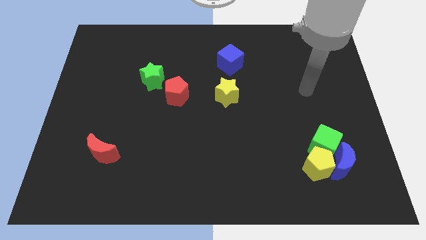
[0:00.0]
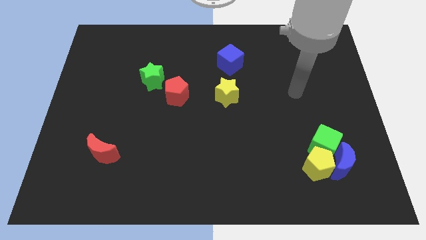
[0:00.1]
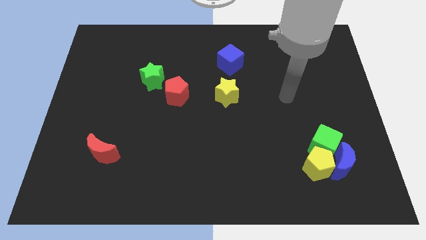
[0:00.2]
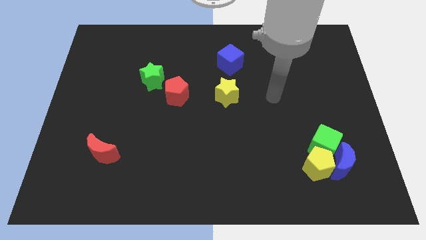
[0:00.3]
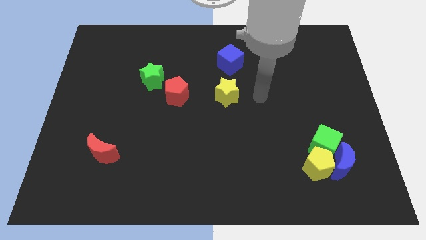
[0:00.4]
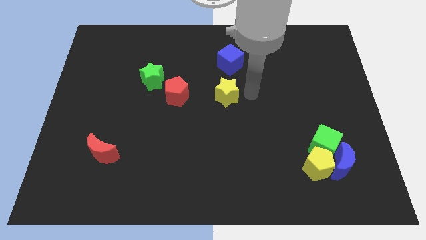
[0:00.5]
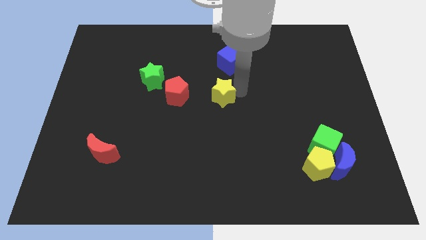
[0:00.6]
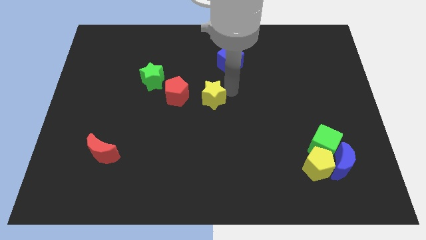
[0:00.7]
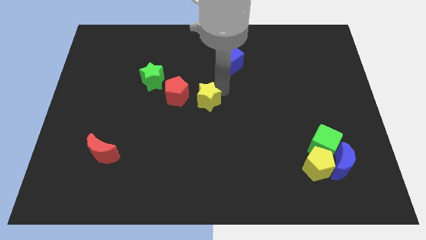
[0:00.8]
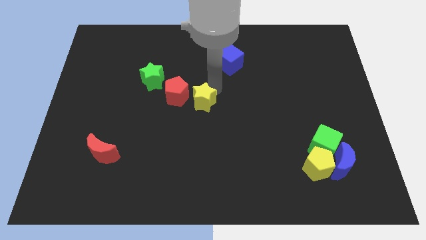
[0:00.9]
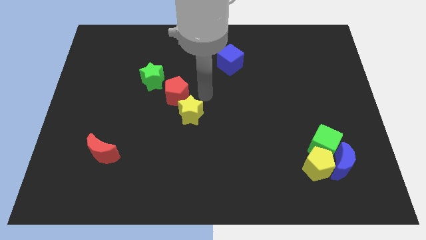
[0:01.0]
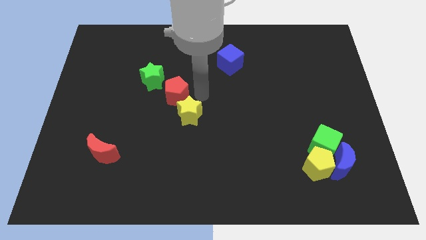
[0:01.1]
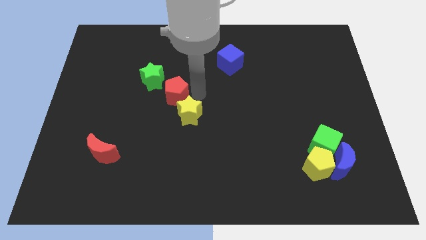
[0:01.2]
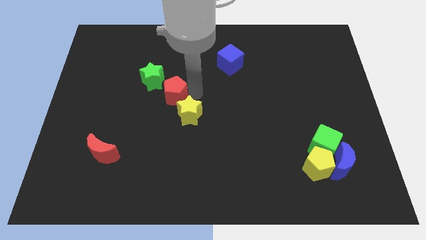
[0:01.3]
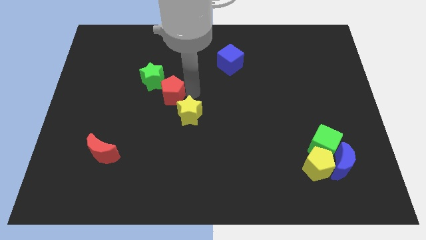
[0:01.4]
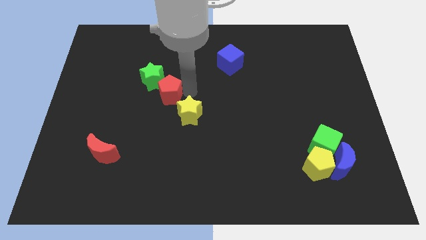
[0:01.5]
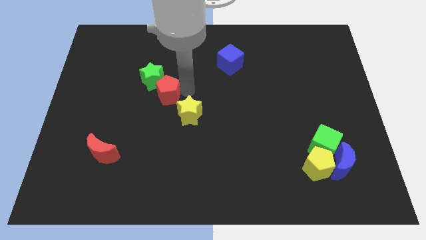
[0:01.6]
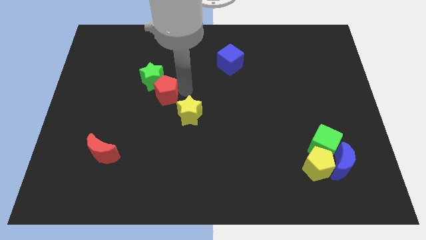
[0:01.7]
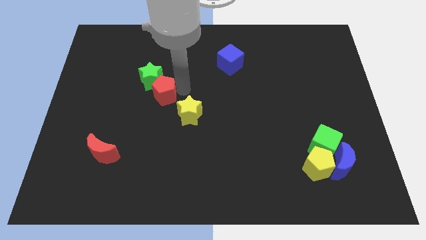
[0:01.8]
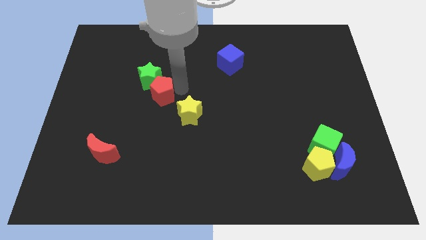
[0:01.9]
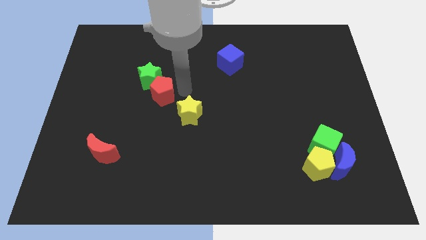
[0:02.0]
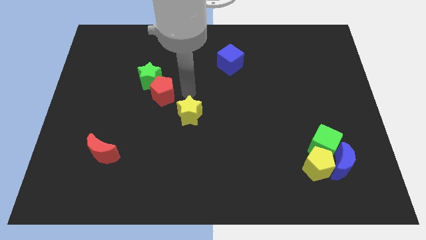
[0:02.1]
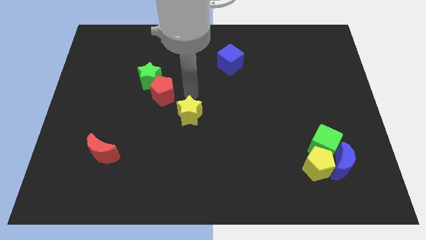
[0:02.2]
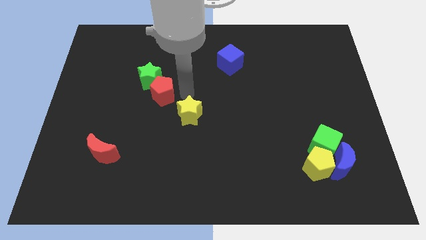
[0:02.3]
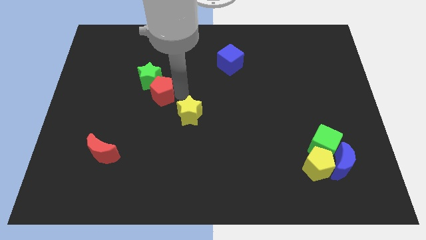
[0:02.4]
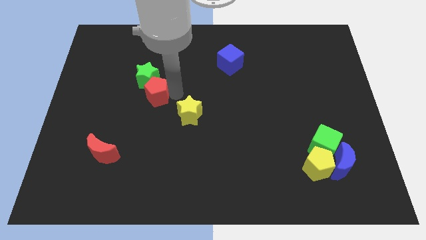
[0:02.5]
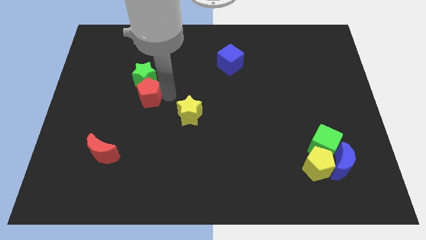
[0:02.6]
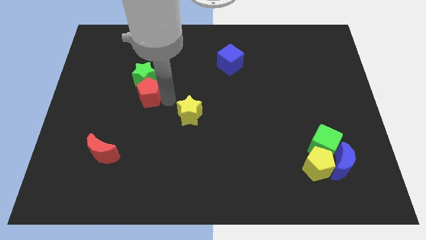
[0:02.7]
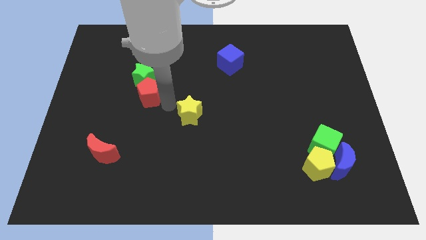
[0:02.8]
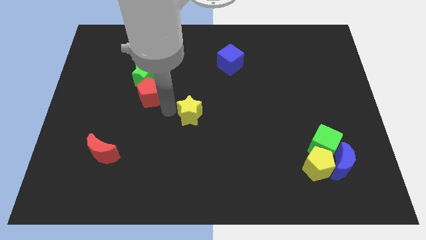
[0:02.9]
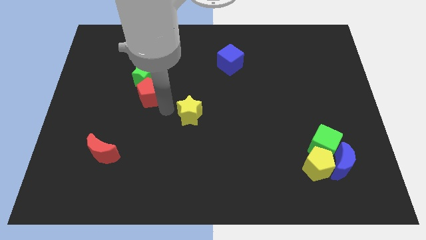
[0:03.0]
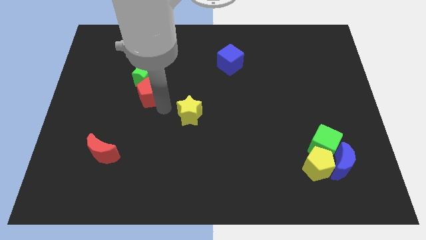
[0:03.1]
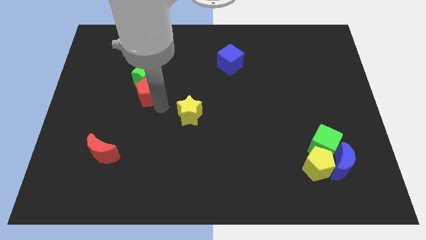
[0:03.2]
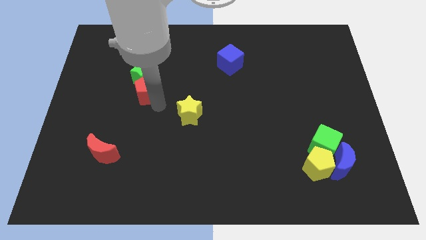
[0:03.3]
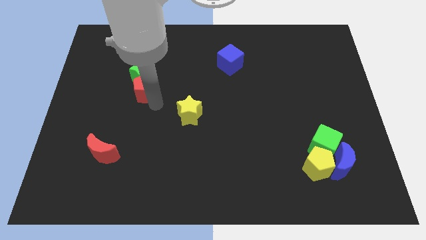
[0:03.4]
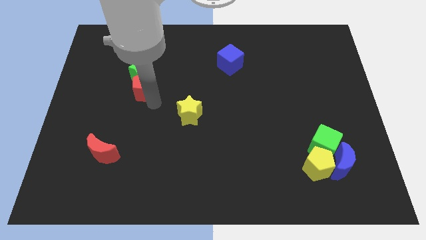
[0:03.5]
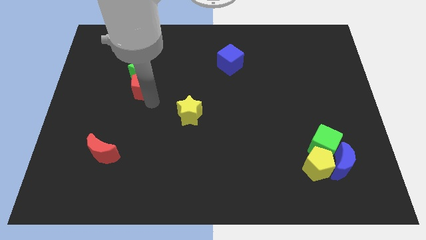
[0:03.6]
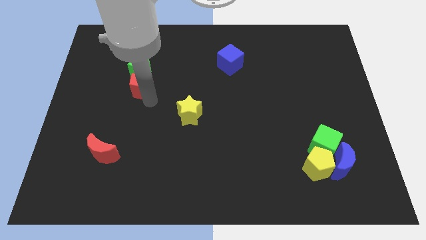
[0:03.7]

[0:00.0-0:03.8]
move the red pentagon slightly upwards and then to the left

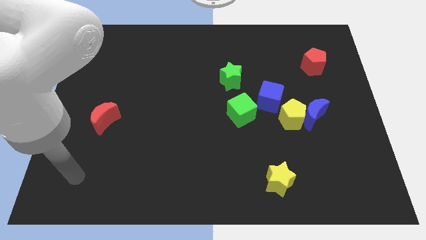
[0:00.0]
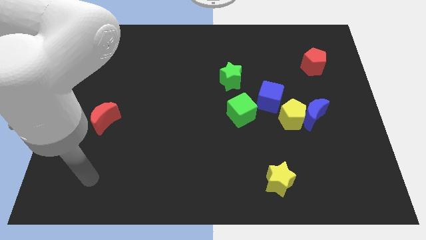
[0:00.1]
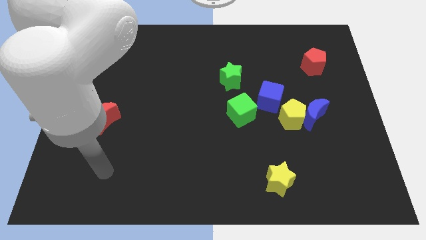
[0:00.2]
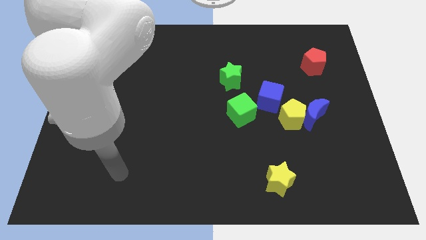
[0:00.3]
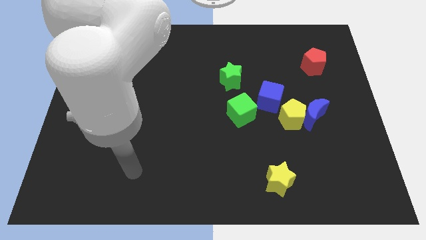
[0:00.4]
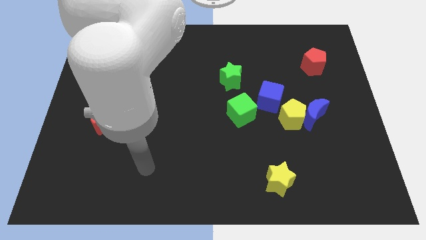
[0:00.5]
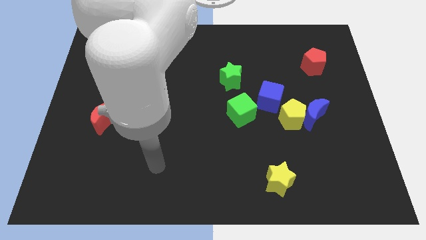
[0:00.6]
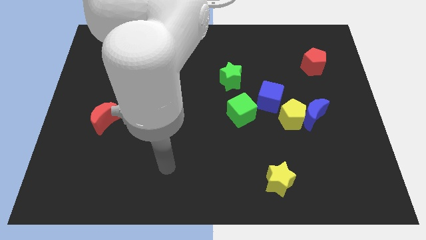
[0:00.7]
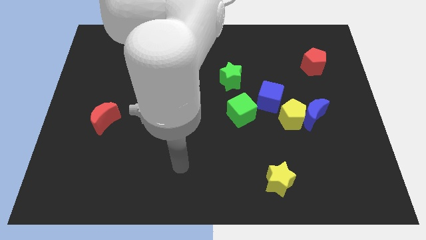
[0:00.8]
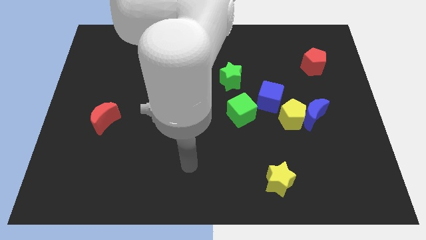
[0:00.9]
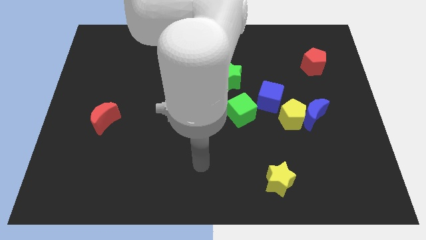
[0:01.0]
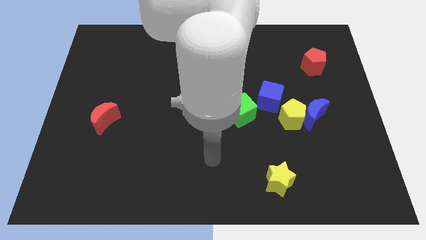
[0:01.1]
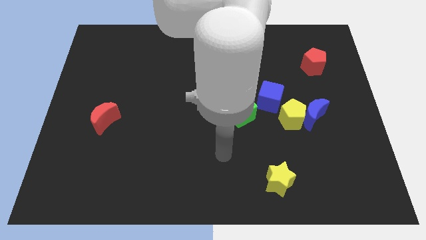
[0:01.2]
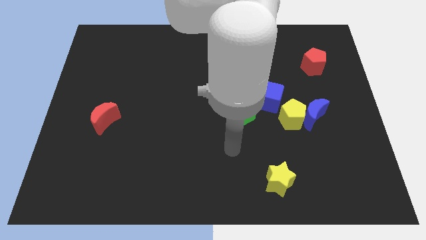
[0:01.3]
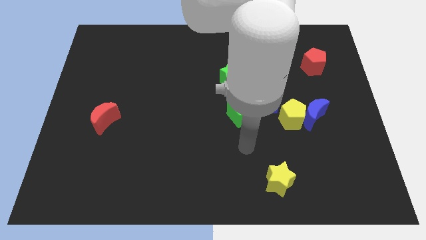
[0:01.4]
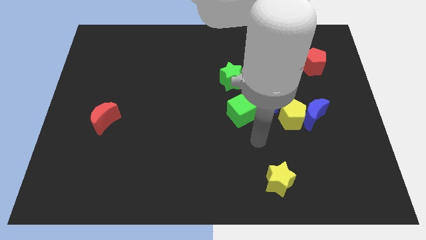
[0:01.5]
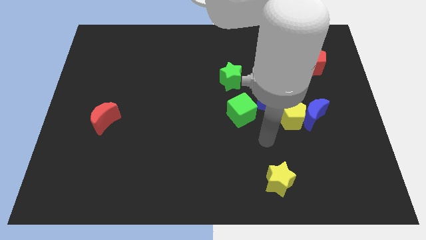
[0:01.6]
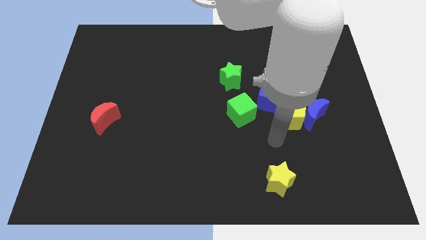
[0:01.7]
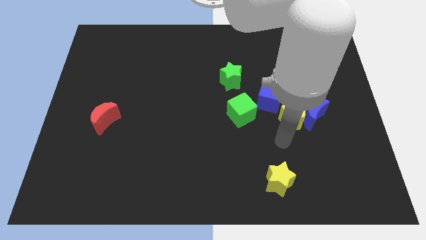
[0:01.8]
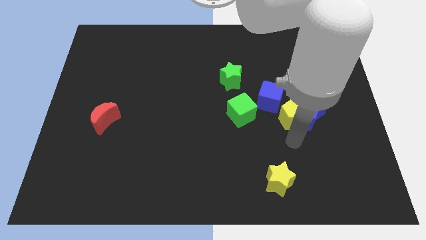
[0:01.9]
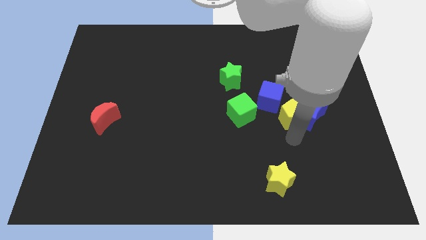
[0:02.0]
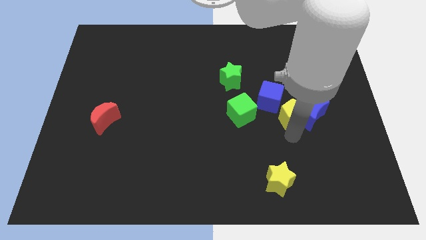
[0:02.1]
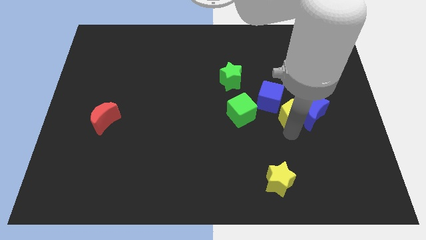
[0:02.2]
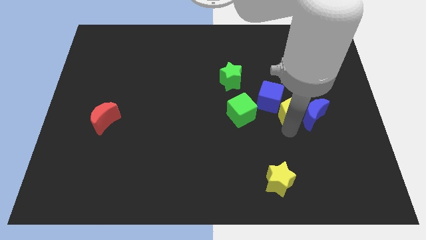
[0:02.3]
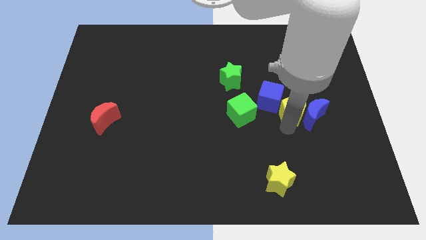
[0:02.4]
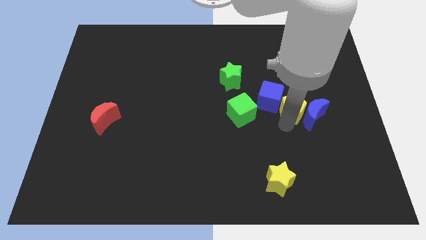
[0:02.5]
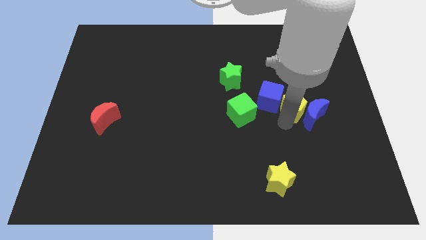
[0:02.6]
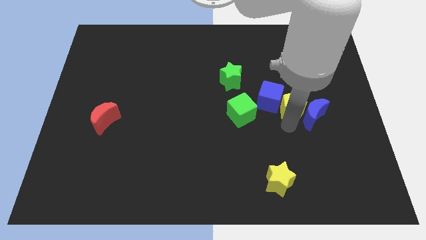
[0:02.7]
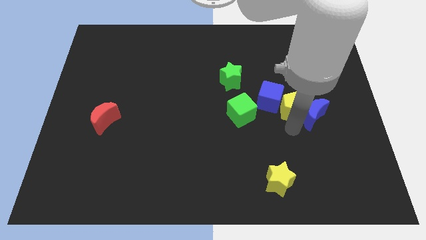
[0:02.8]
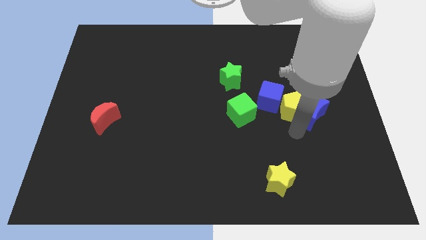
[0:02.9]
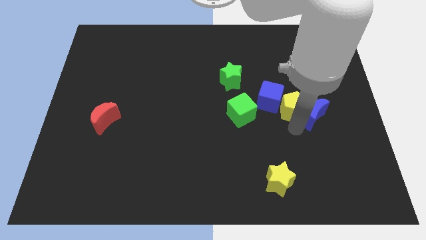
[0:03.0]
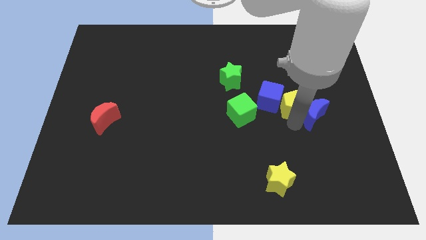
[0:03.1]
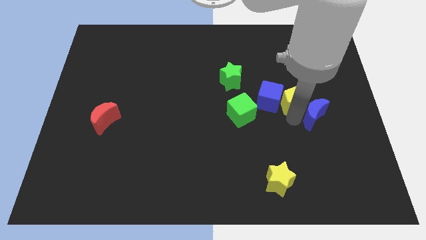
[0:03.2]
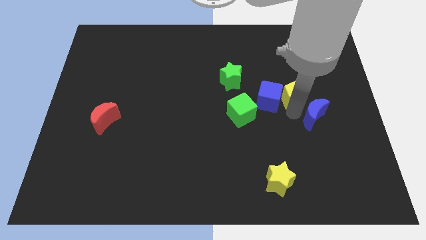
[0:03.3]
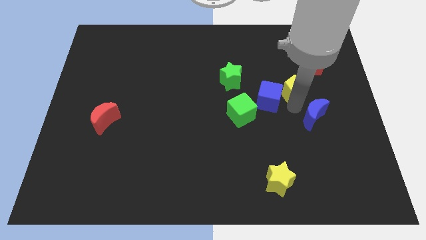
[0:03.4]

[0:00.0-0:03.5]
slightly move the yellow pentagon up

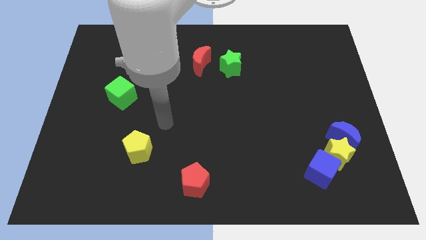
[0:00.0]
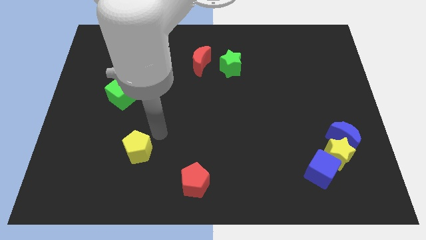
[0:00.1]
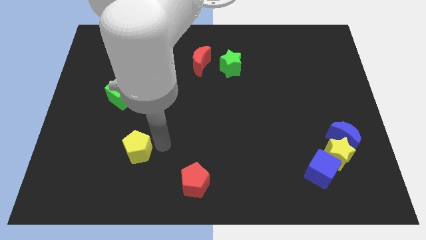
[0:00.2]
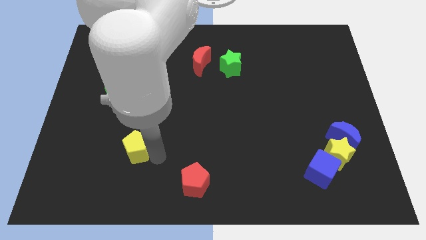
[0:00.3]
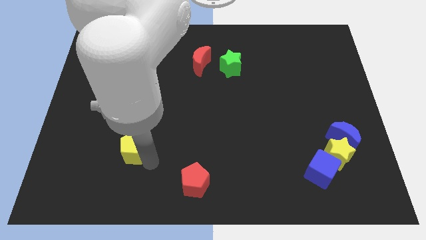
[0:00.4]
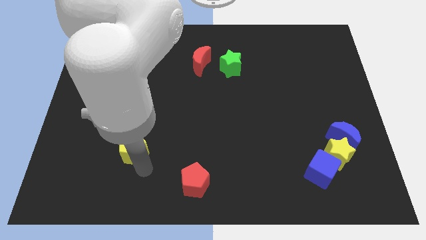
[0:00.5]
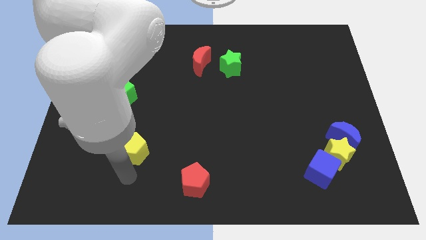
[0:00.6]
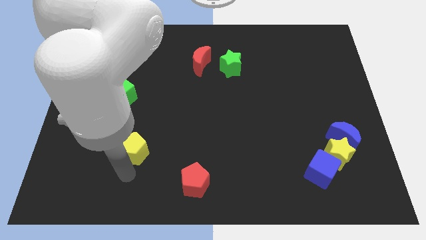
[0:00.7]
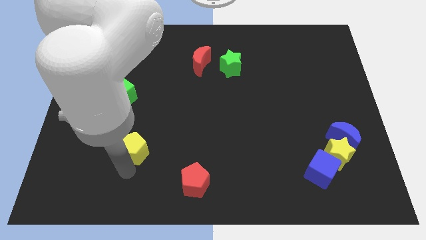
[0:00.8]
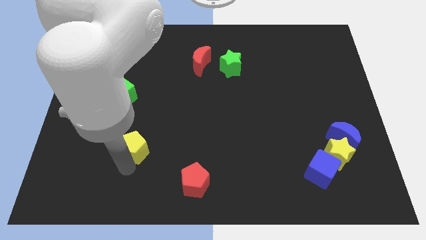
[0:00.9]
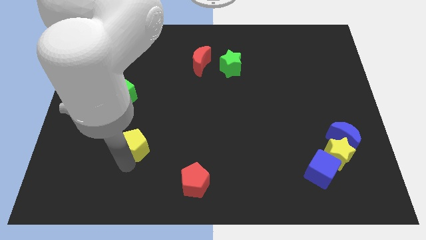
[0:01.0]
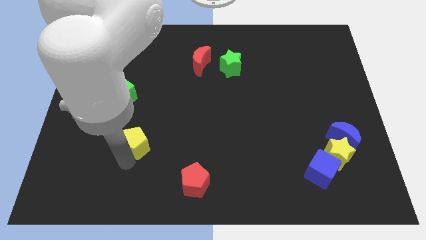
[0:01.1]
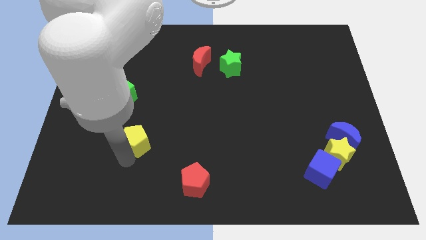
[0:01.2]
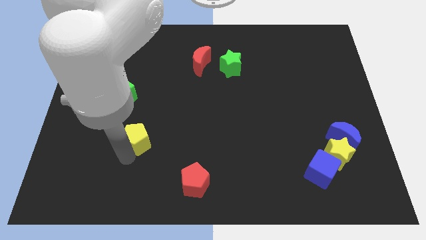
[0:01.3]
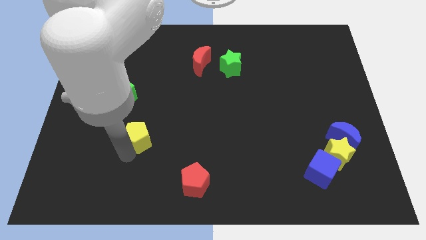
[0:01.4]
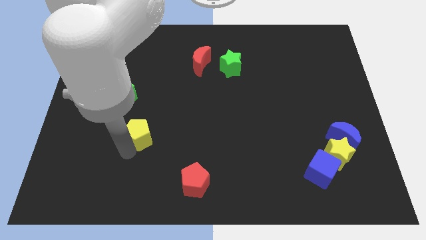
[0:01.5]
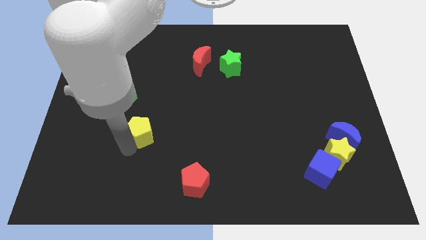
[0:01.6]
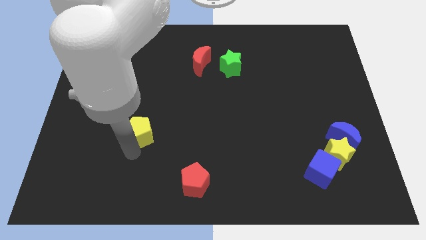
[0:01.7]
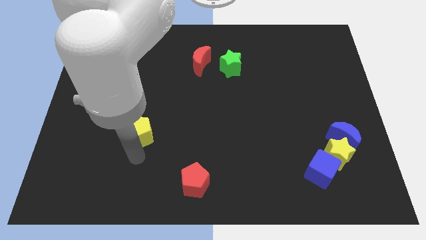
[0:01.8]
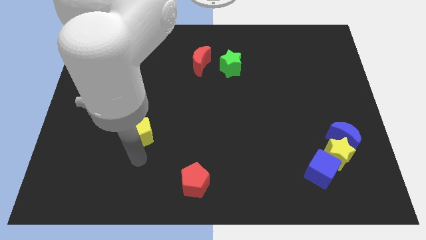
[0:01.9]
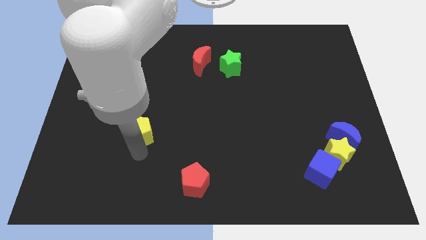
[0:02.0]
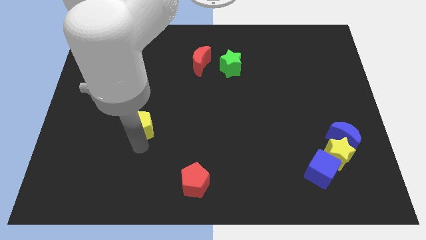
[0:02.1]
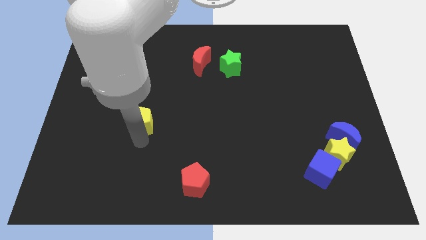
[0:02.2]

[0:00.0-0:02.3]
slide the yellow pentagon up a little bit
